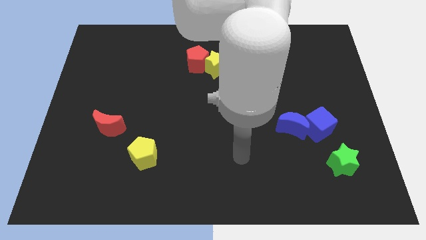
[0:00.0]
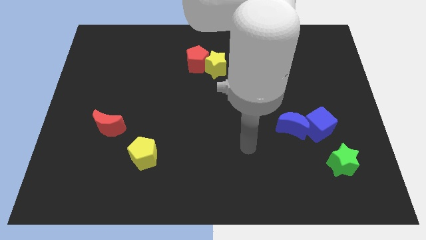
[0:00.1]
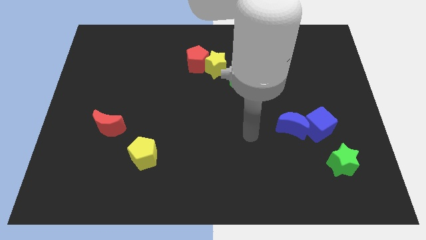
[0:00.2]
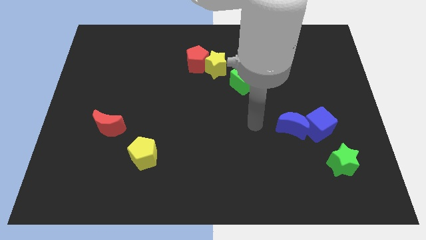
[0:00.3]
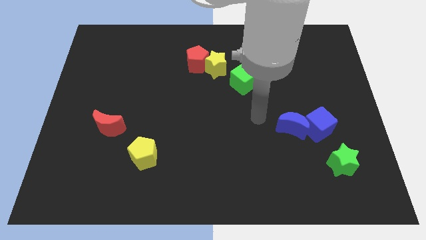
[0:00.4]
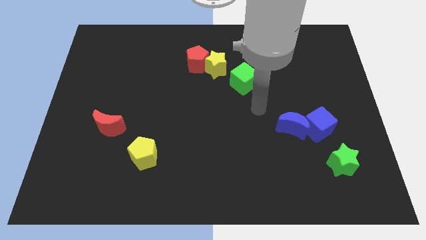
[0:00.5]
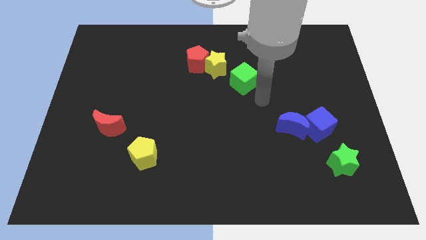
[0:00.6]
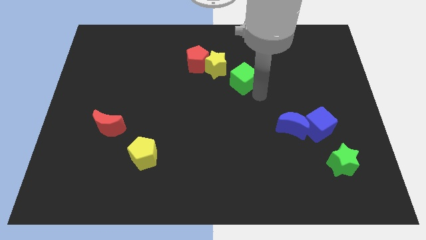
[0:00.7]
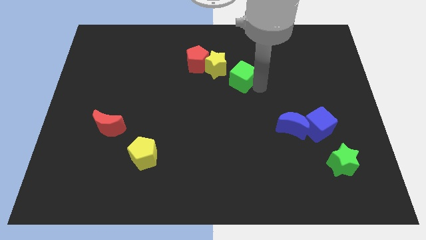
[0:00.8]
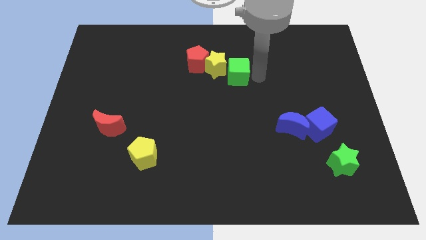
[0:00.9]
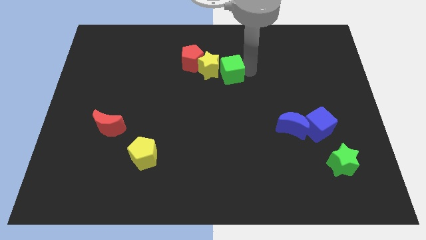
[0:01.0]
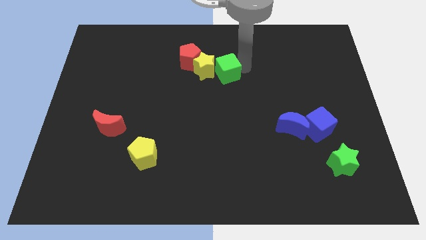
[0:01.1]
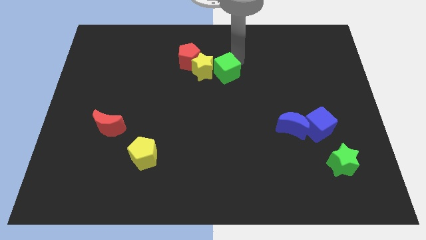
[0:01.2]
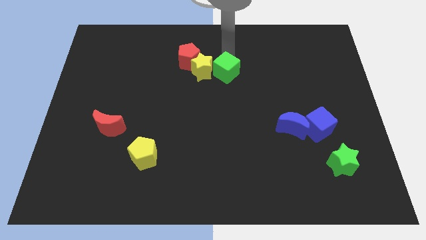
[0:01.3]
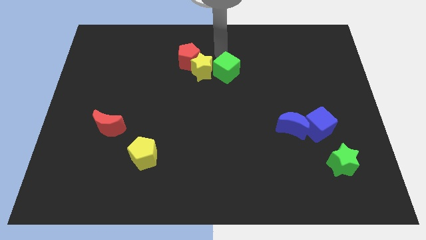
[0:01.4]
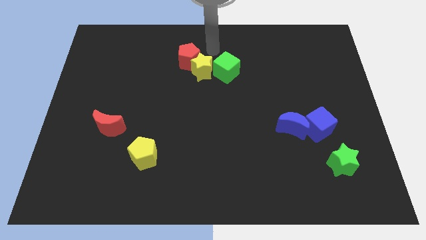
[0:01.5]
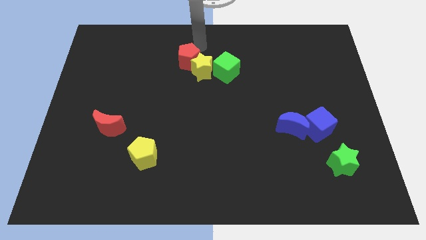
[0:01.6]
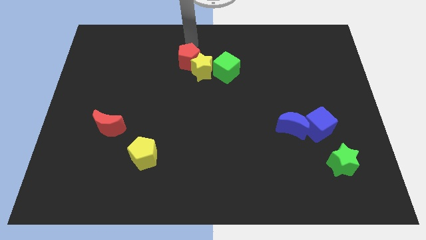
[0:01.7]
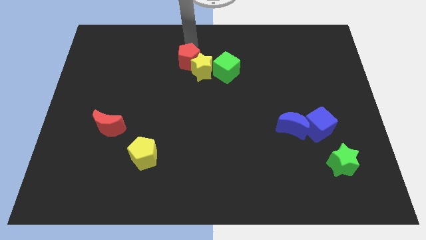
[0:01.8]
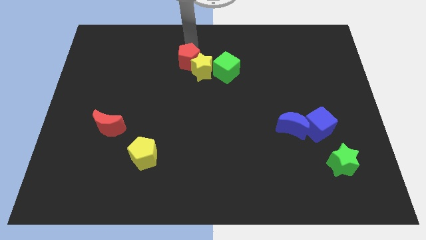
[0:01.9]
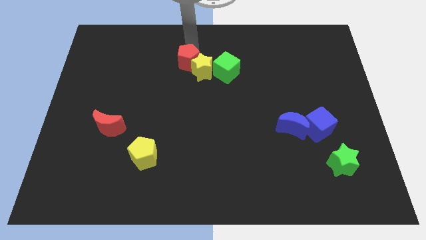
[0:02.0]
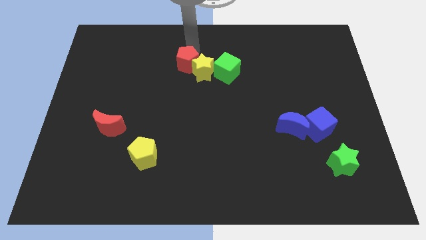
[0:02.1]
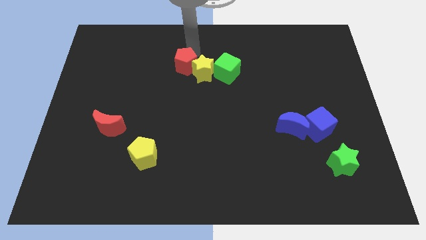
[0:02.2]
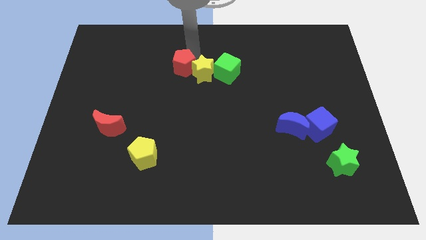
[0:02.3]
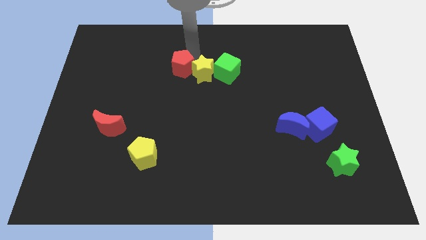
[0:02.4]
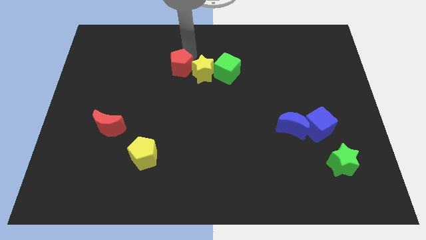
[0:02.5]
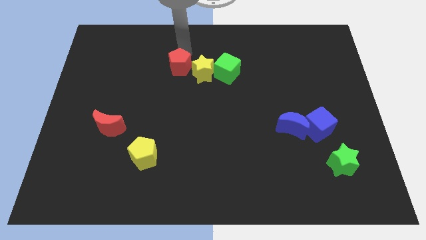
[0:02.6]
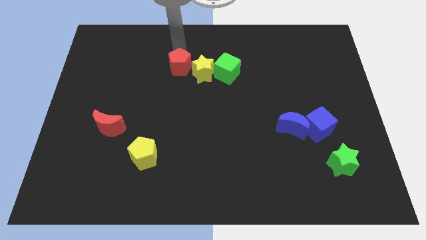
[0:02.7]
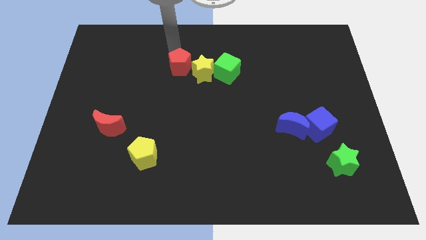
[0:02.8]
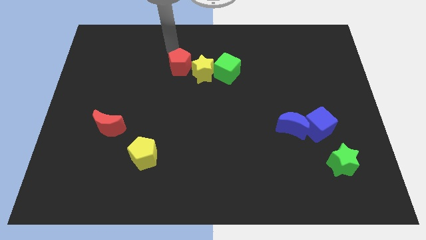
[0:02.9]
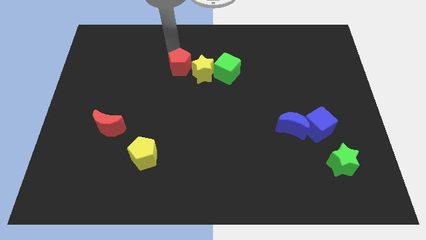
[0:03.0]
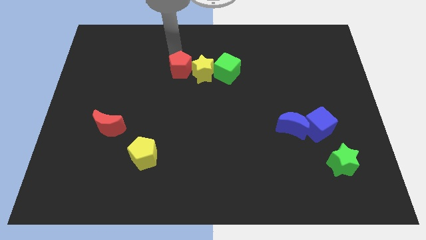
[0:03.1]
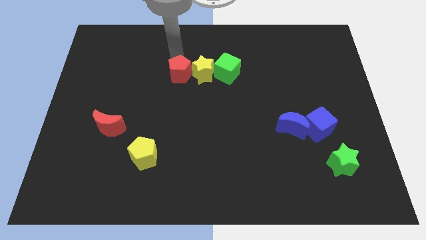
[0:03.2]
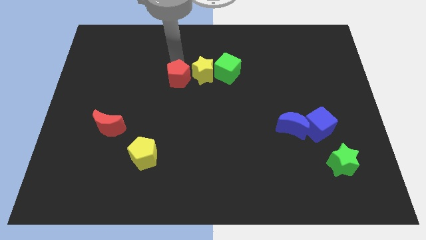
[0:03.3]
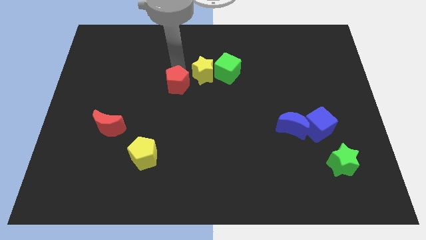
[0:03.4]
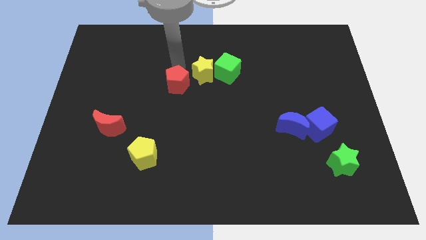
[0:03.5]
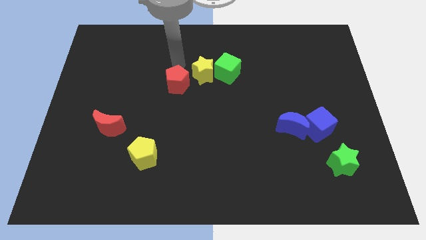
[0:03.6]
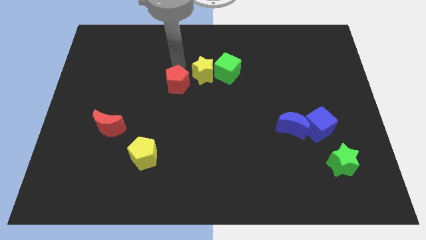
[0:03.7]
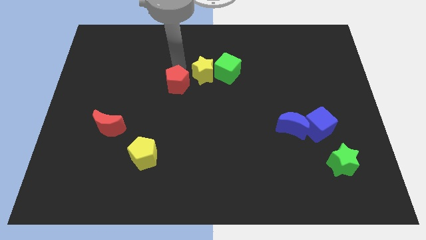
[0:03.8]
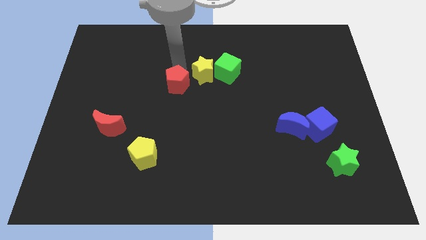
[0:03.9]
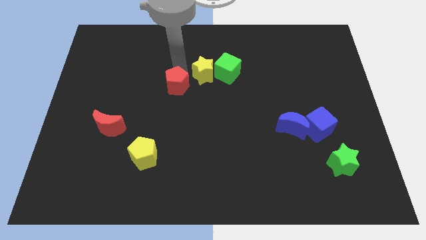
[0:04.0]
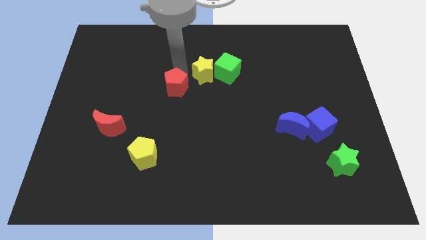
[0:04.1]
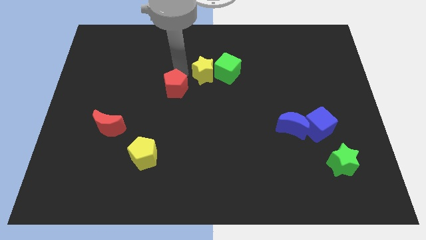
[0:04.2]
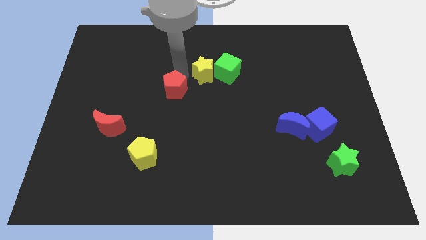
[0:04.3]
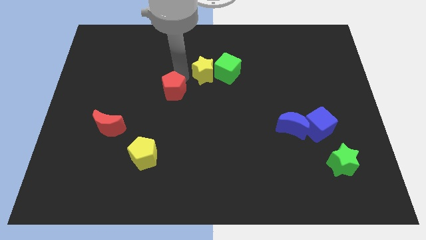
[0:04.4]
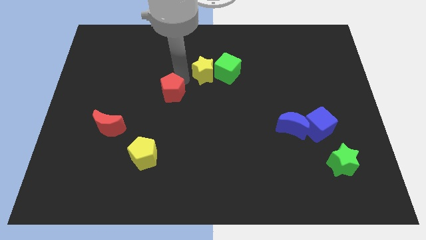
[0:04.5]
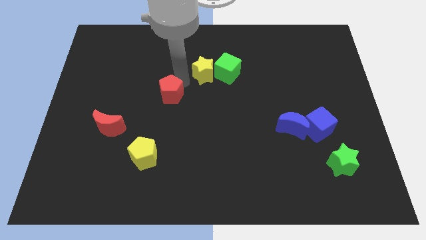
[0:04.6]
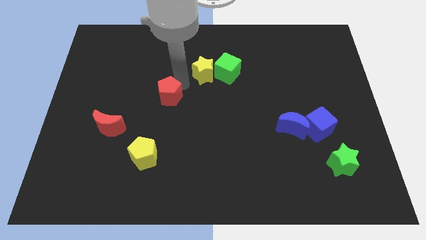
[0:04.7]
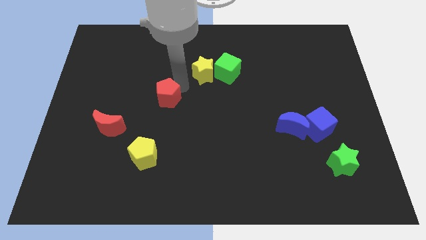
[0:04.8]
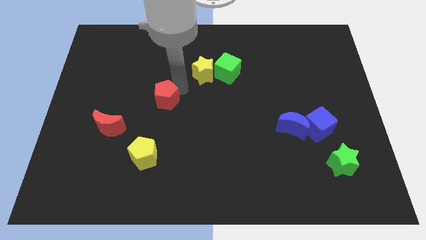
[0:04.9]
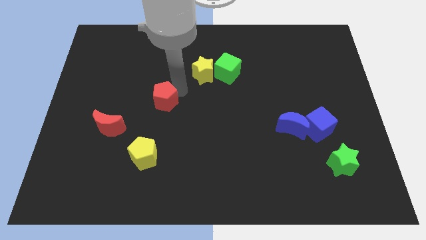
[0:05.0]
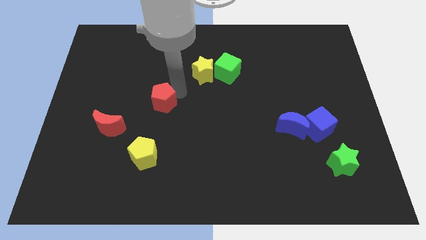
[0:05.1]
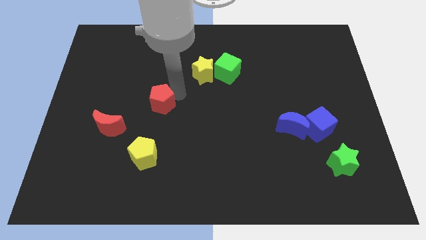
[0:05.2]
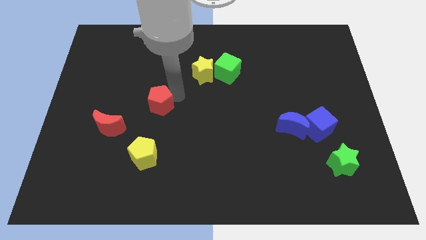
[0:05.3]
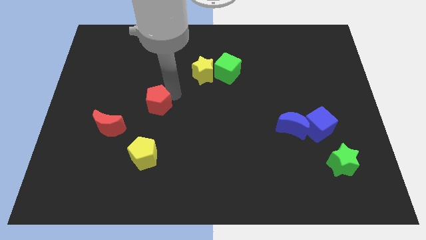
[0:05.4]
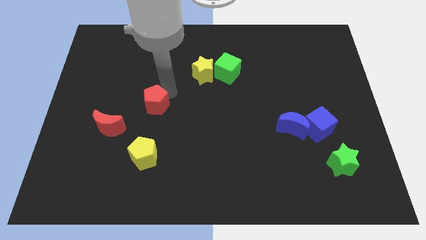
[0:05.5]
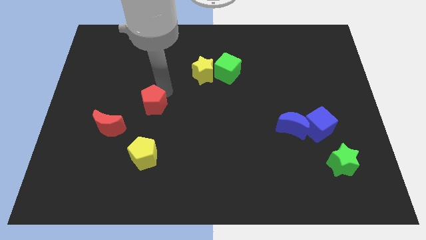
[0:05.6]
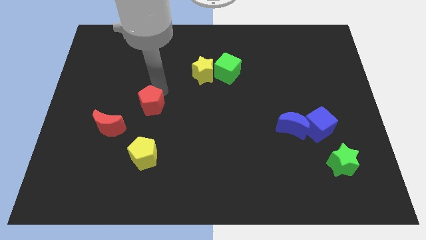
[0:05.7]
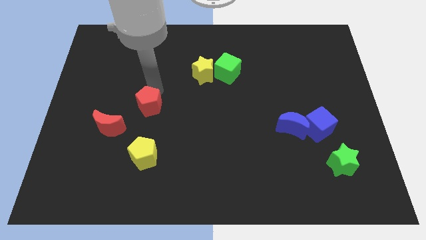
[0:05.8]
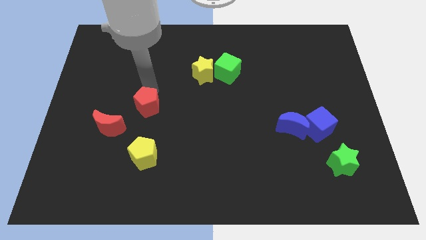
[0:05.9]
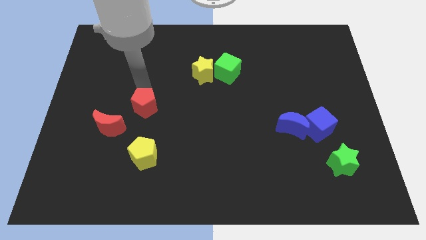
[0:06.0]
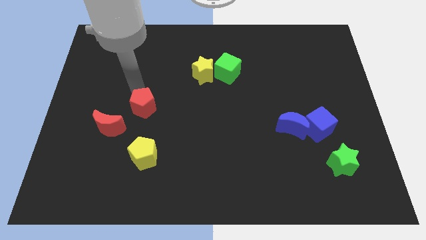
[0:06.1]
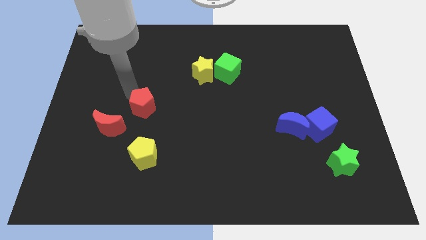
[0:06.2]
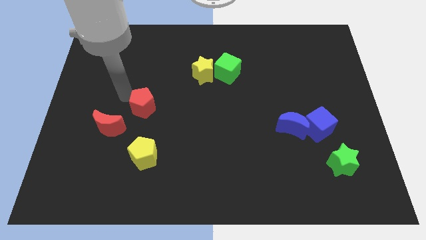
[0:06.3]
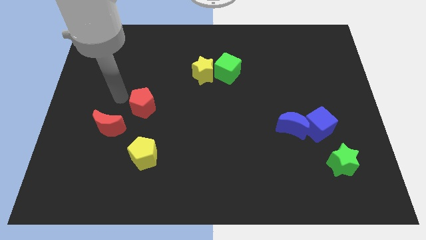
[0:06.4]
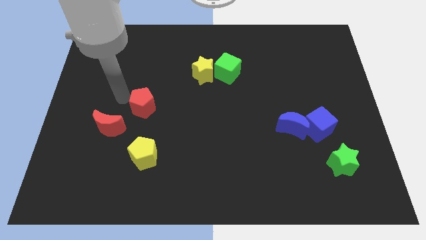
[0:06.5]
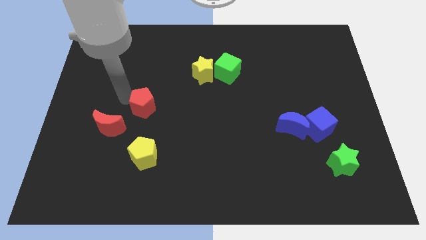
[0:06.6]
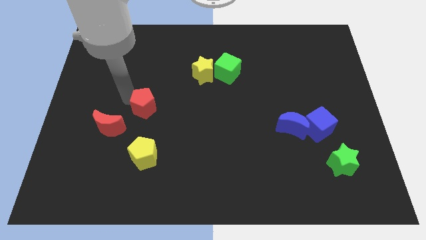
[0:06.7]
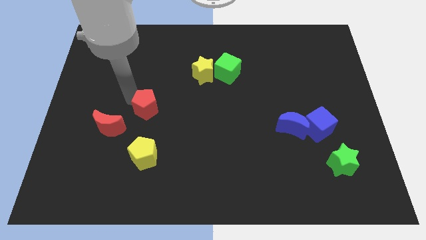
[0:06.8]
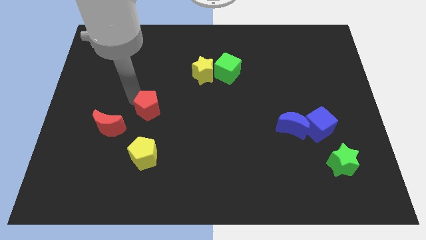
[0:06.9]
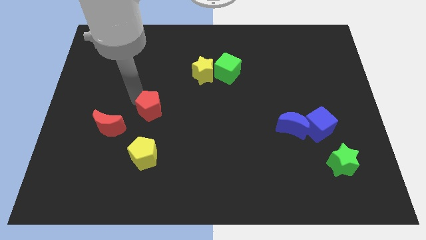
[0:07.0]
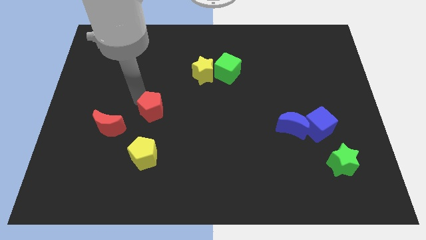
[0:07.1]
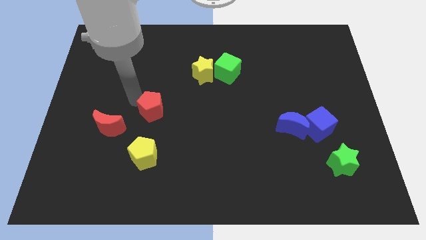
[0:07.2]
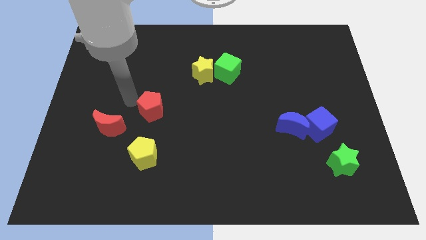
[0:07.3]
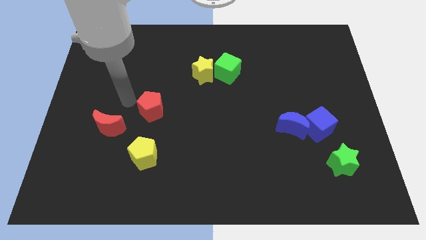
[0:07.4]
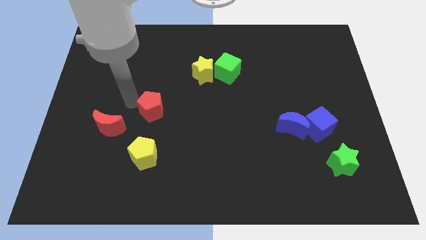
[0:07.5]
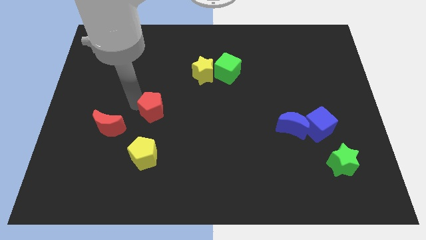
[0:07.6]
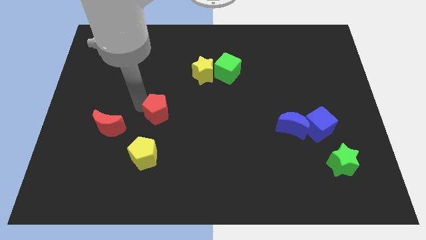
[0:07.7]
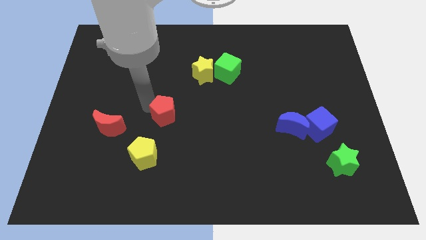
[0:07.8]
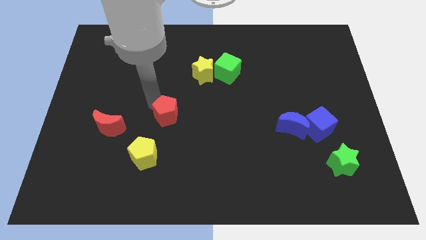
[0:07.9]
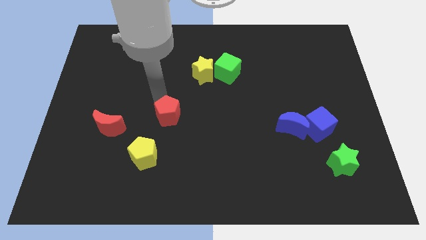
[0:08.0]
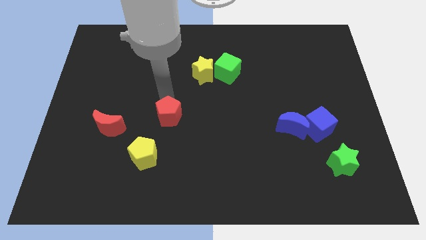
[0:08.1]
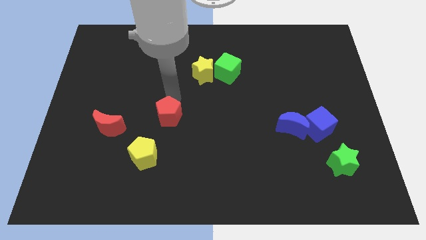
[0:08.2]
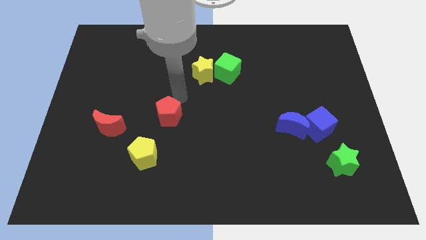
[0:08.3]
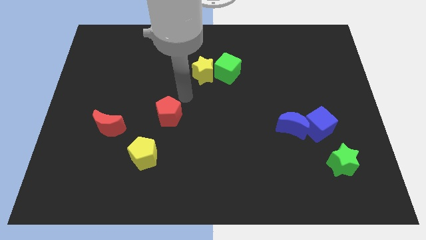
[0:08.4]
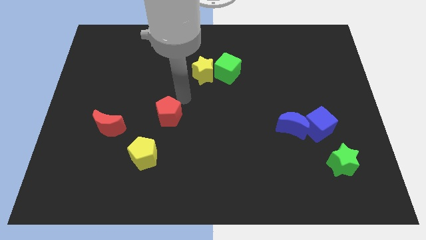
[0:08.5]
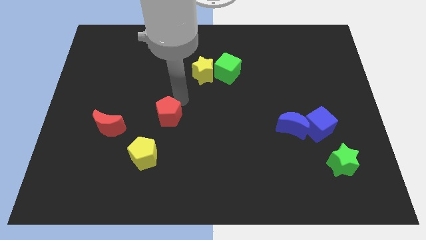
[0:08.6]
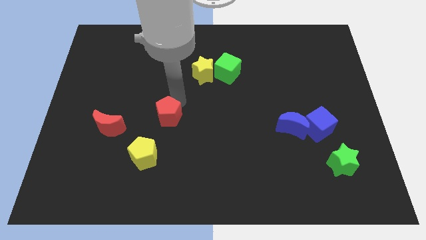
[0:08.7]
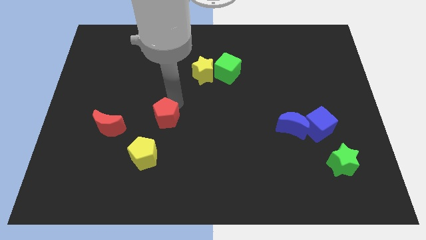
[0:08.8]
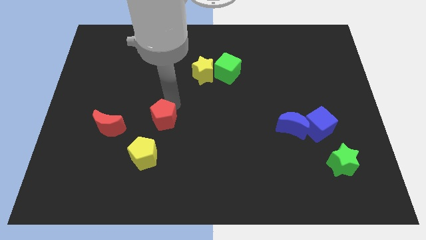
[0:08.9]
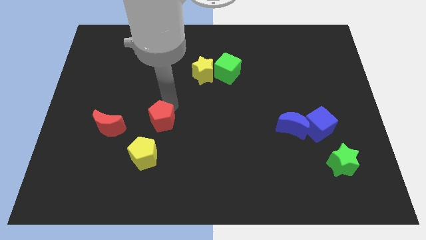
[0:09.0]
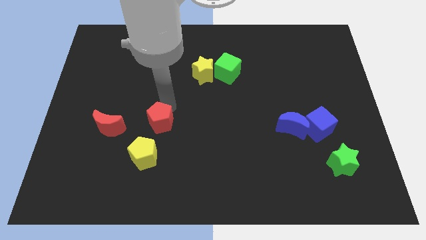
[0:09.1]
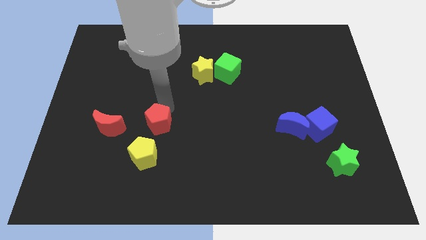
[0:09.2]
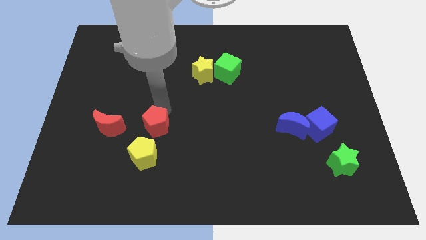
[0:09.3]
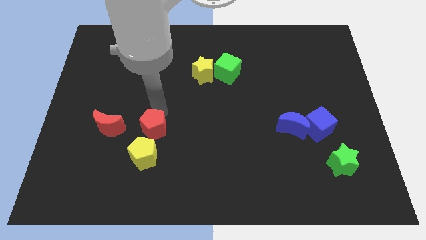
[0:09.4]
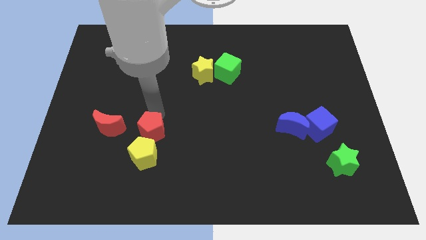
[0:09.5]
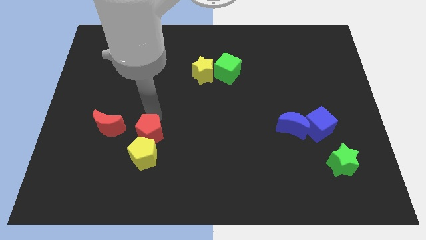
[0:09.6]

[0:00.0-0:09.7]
put the red pentagon to the yellow pentagon
